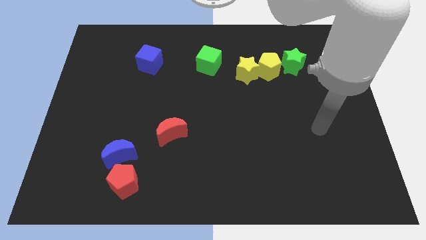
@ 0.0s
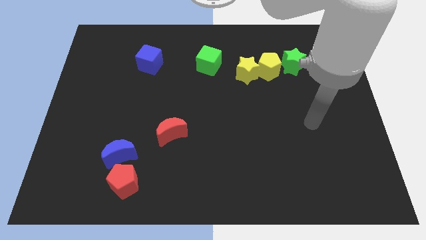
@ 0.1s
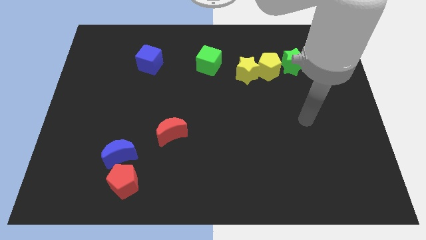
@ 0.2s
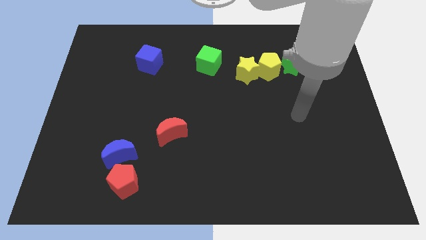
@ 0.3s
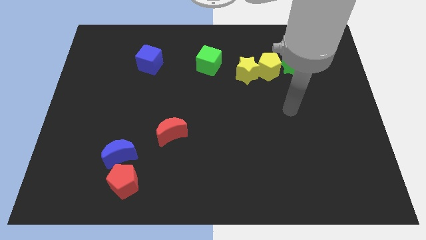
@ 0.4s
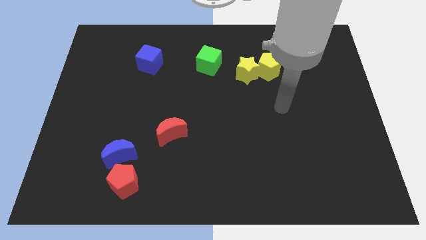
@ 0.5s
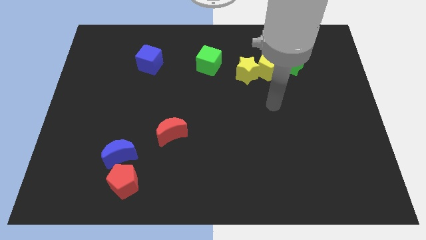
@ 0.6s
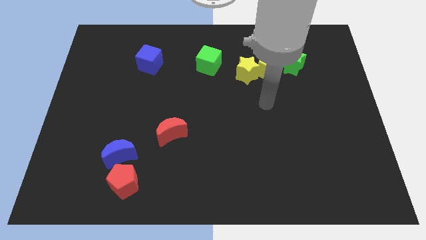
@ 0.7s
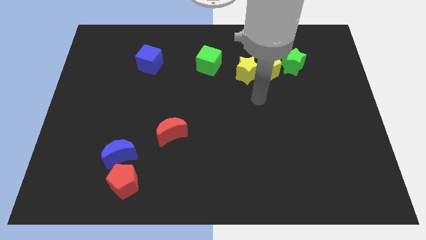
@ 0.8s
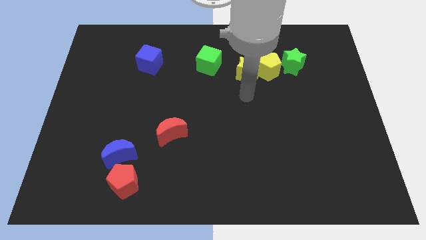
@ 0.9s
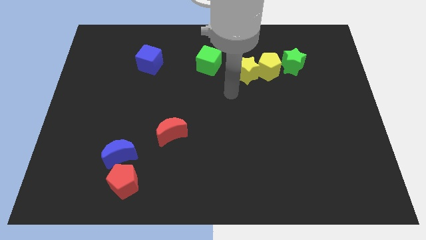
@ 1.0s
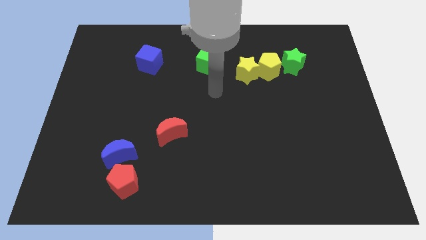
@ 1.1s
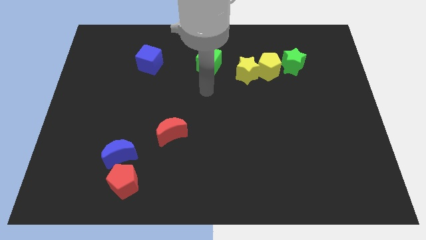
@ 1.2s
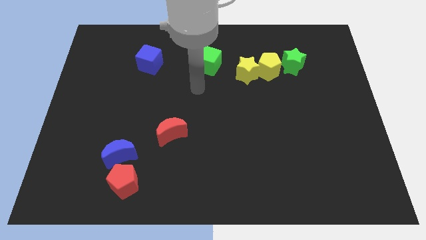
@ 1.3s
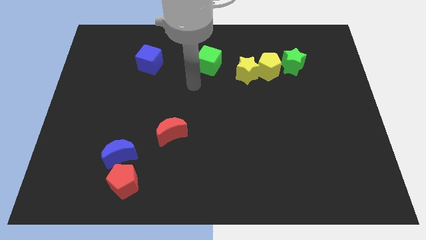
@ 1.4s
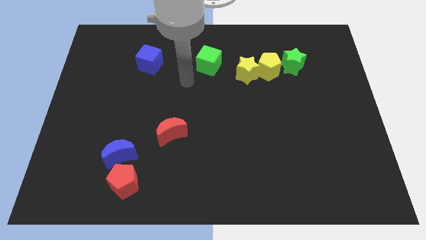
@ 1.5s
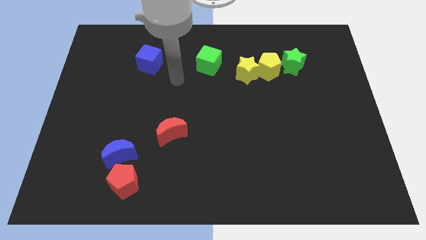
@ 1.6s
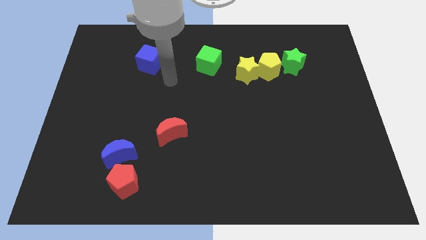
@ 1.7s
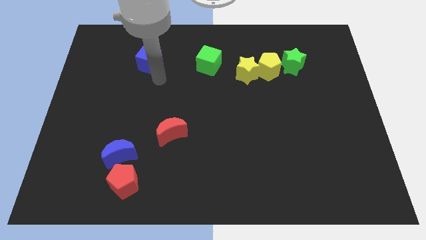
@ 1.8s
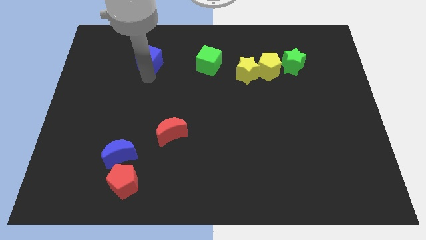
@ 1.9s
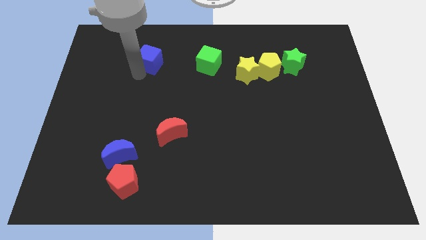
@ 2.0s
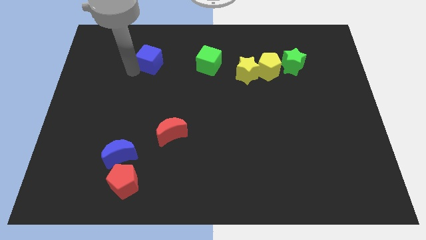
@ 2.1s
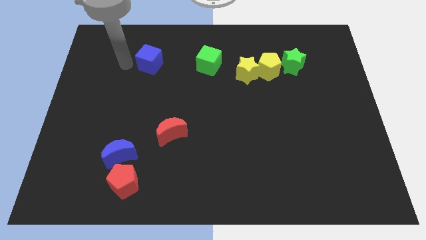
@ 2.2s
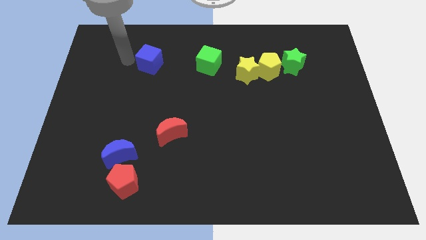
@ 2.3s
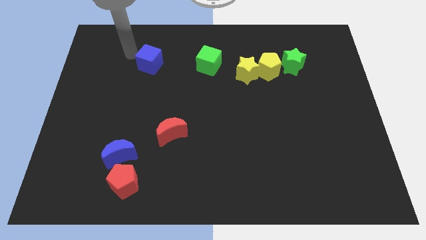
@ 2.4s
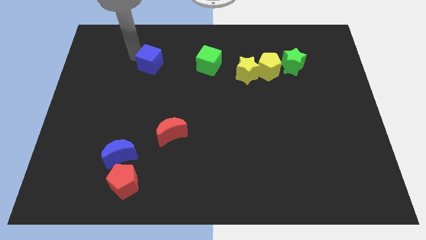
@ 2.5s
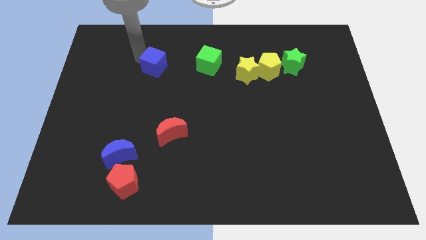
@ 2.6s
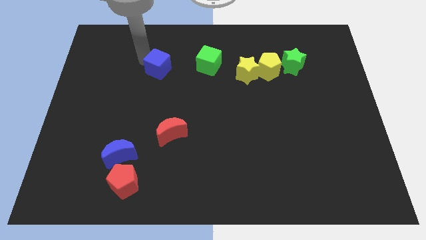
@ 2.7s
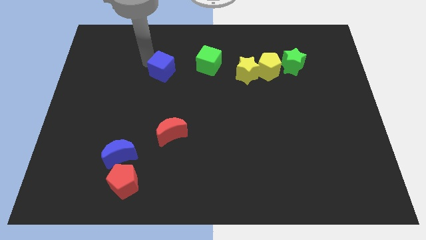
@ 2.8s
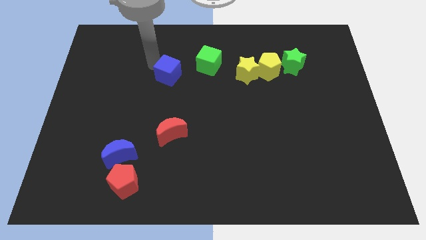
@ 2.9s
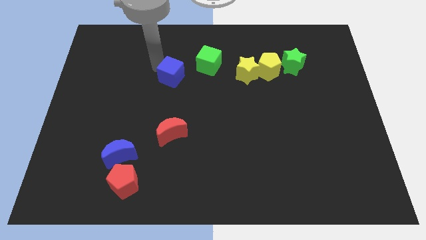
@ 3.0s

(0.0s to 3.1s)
slightly move the blue cube diagonally down and to the right

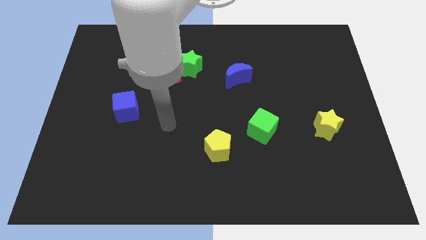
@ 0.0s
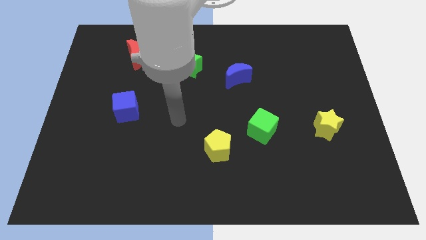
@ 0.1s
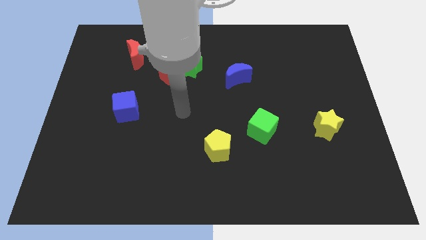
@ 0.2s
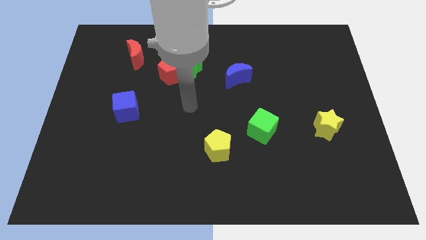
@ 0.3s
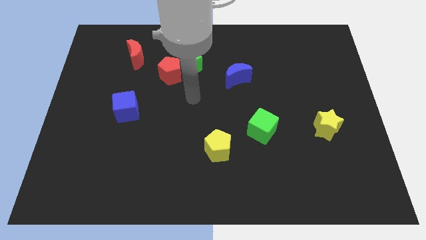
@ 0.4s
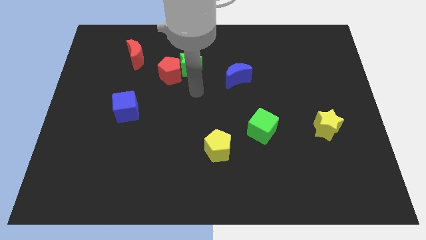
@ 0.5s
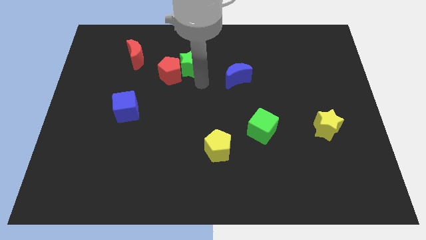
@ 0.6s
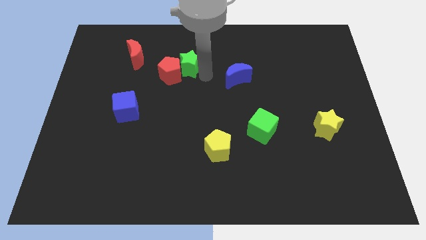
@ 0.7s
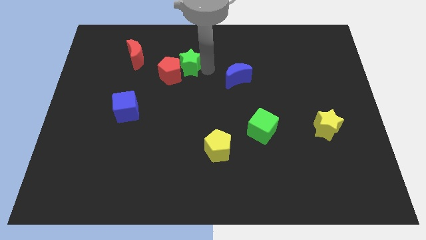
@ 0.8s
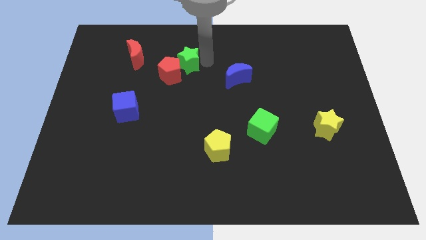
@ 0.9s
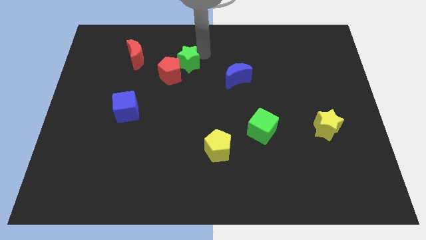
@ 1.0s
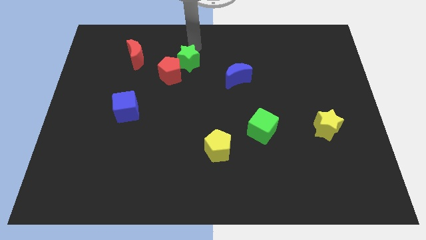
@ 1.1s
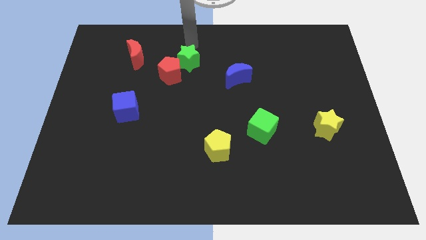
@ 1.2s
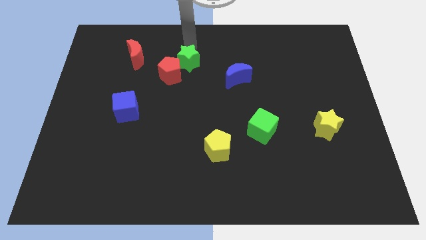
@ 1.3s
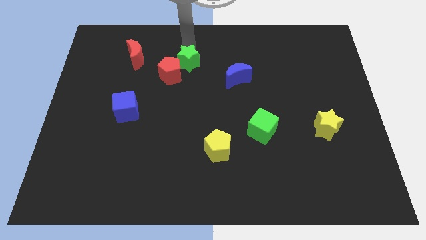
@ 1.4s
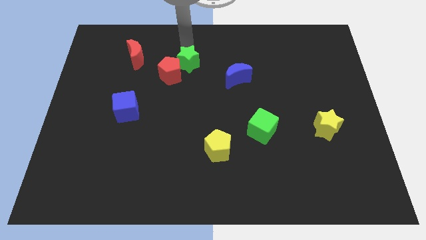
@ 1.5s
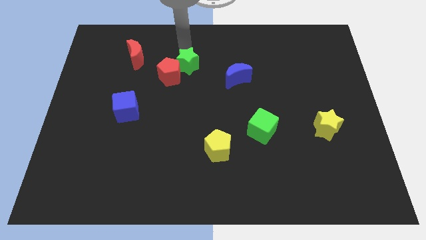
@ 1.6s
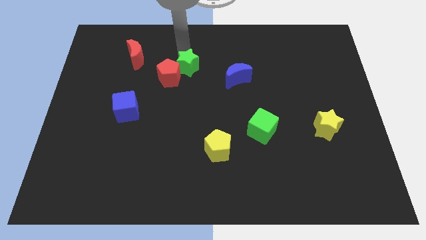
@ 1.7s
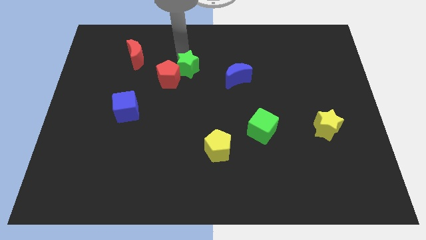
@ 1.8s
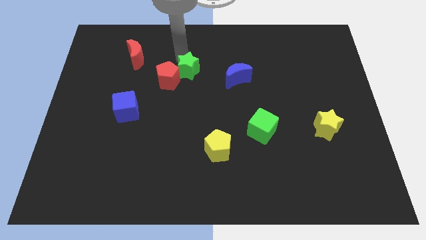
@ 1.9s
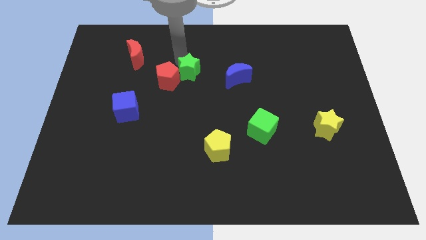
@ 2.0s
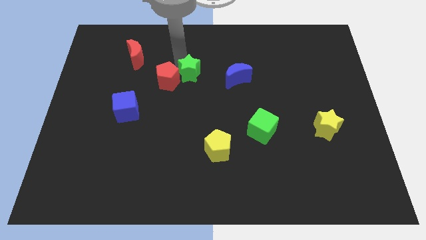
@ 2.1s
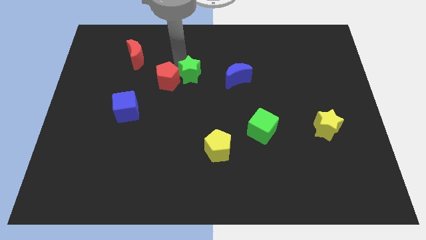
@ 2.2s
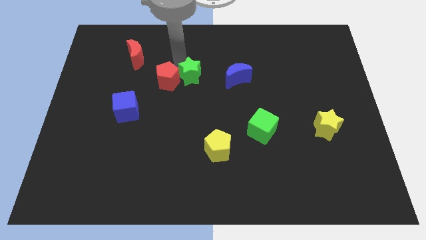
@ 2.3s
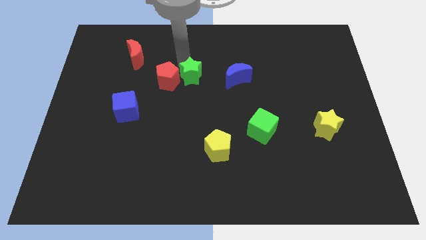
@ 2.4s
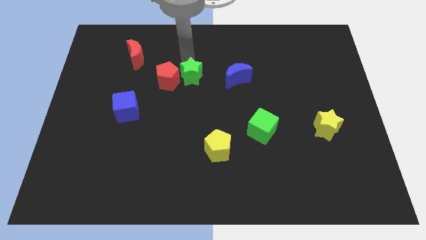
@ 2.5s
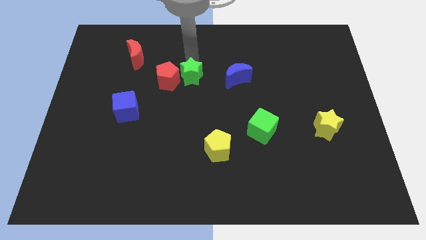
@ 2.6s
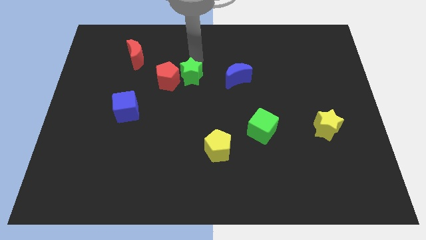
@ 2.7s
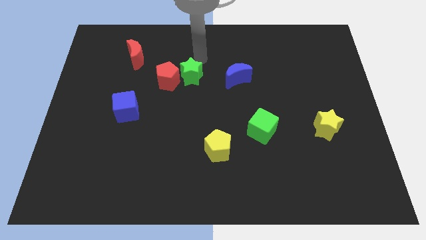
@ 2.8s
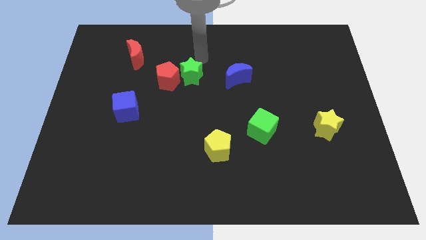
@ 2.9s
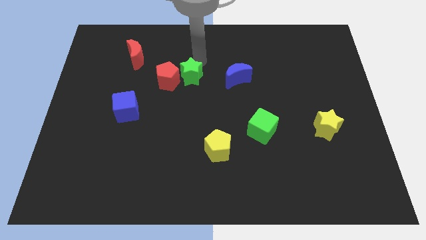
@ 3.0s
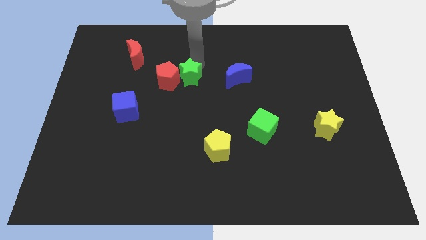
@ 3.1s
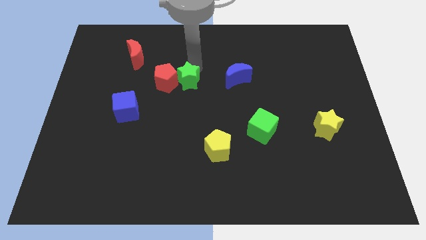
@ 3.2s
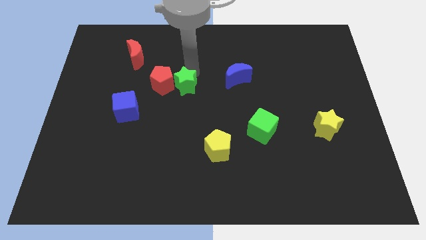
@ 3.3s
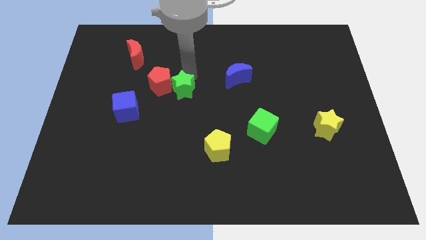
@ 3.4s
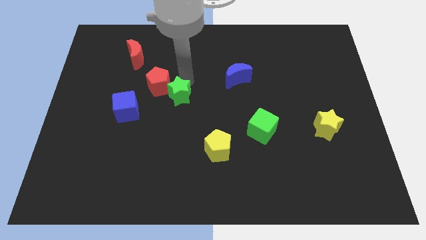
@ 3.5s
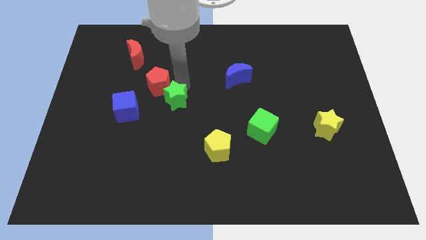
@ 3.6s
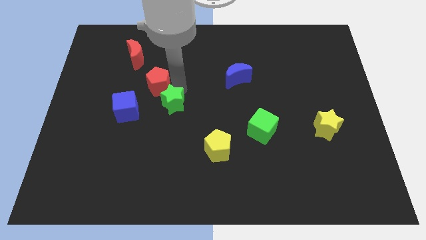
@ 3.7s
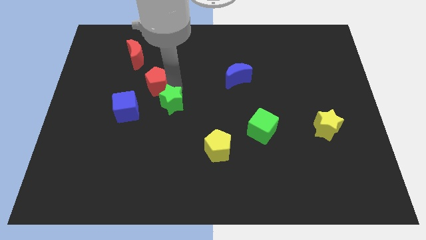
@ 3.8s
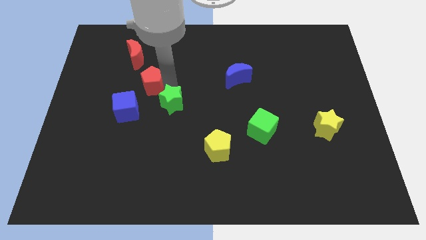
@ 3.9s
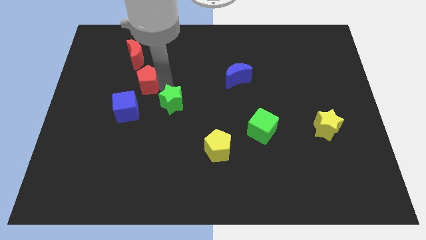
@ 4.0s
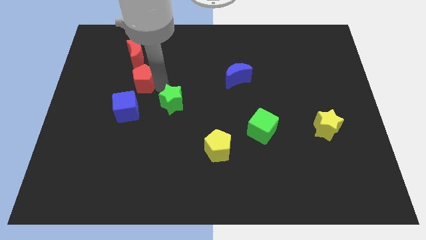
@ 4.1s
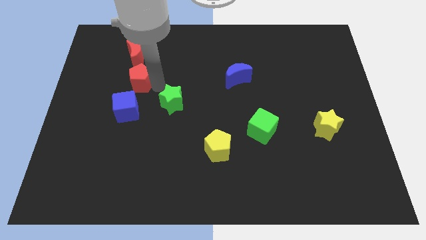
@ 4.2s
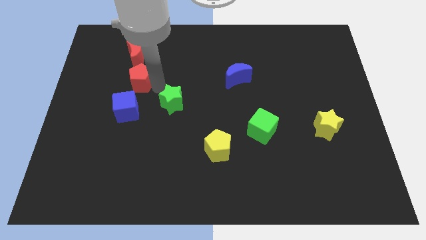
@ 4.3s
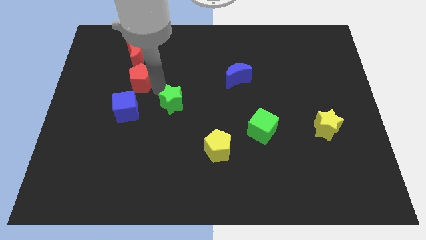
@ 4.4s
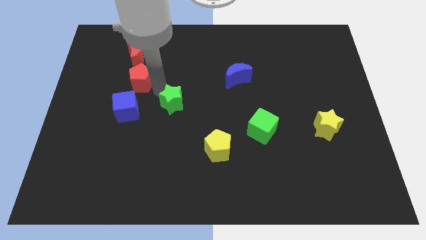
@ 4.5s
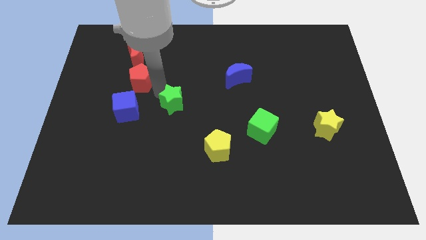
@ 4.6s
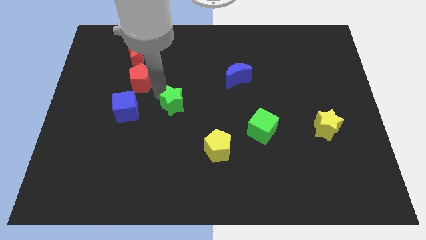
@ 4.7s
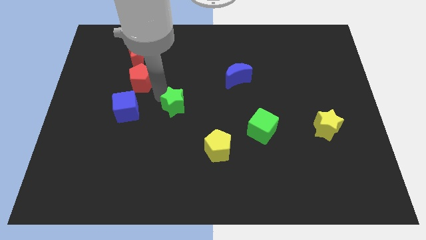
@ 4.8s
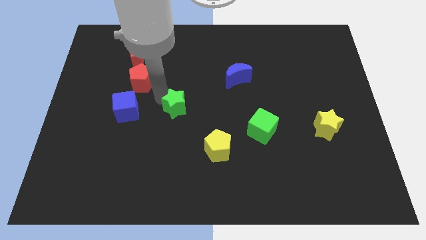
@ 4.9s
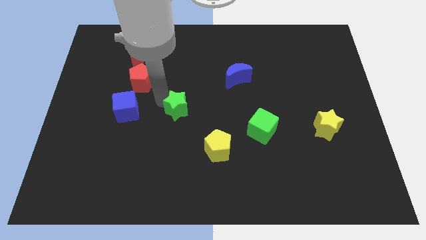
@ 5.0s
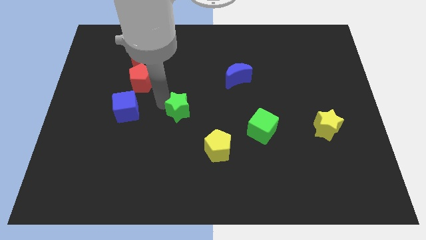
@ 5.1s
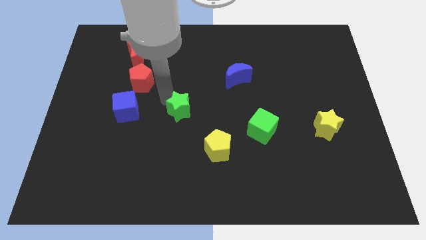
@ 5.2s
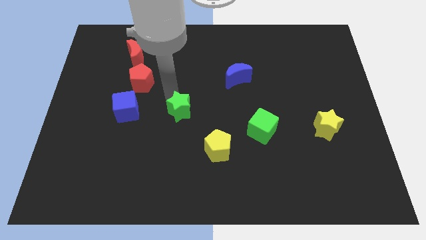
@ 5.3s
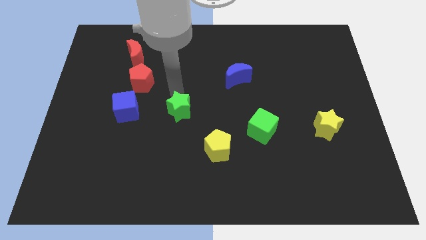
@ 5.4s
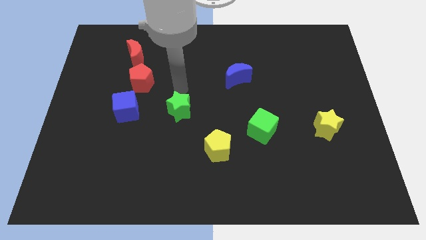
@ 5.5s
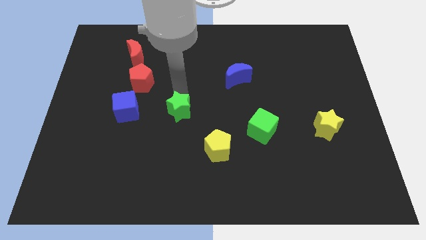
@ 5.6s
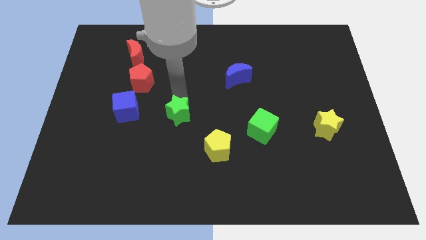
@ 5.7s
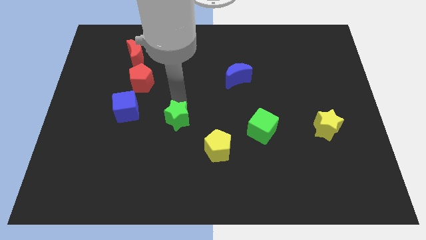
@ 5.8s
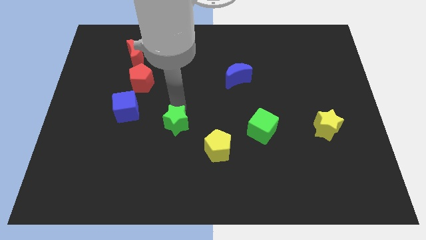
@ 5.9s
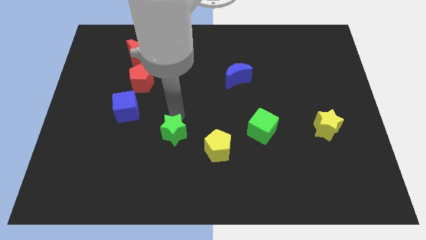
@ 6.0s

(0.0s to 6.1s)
move the green star down
